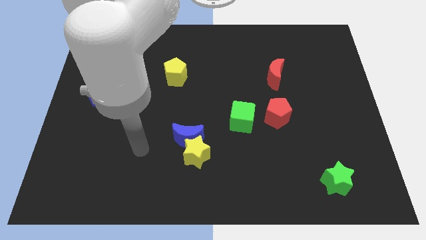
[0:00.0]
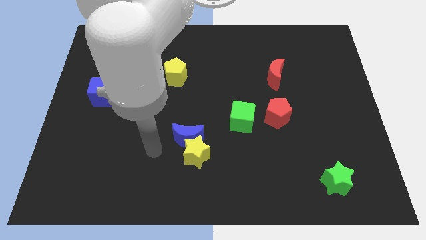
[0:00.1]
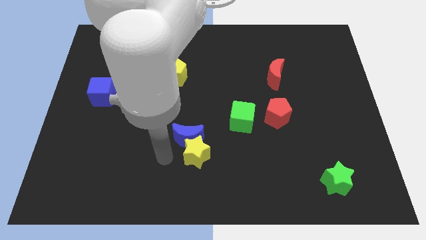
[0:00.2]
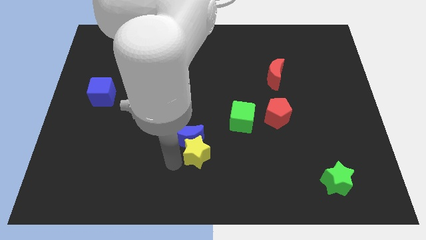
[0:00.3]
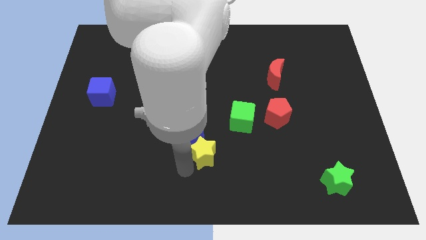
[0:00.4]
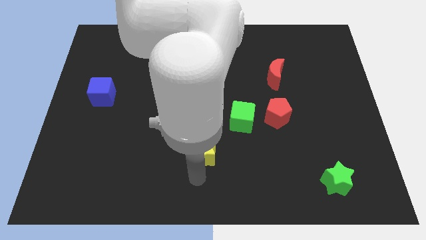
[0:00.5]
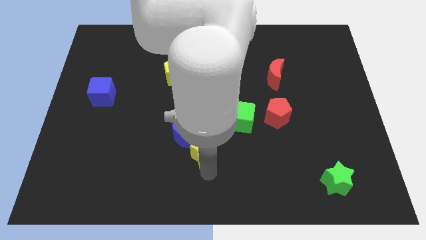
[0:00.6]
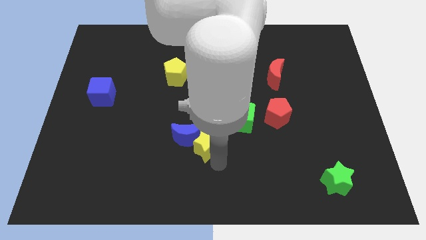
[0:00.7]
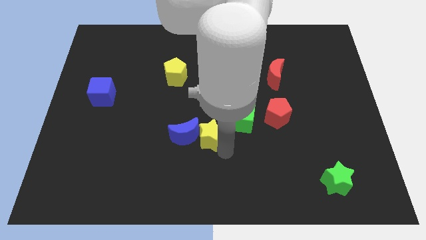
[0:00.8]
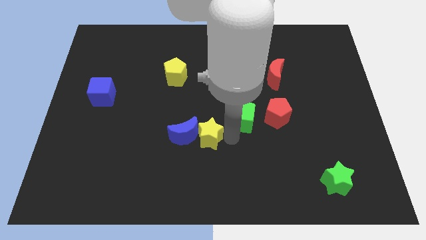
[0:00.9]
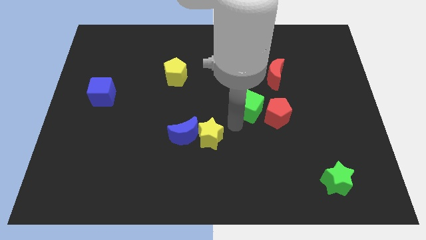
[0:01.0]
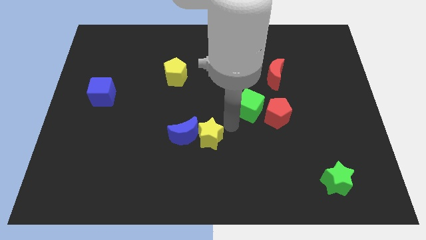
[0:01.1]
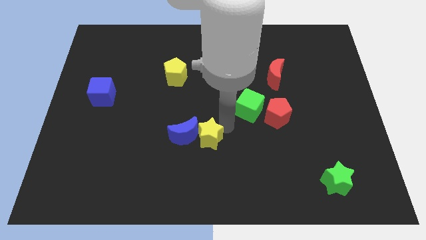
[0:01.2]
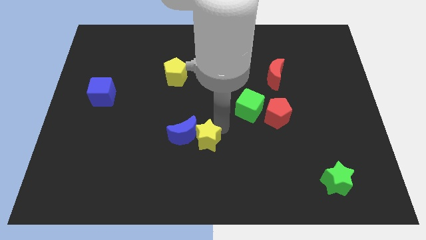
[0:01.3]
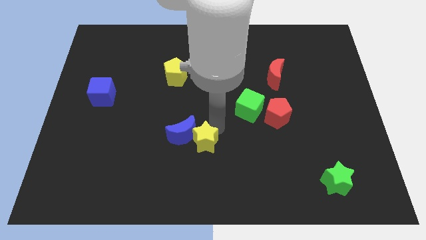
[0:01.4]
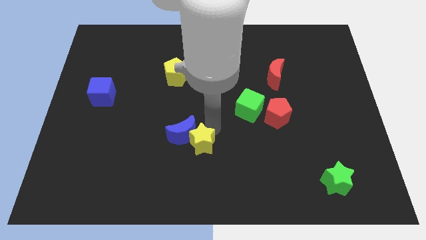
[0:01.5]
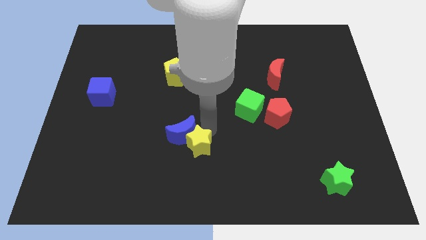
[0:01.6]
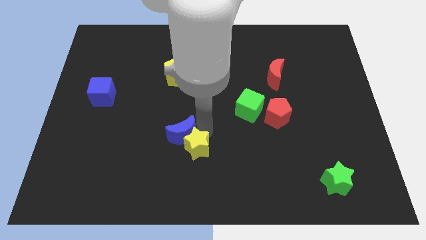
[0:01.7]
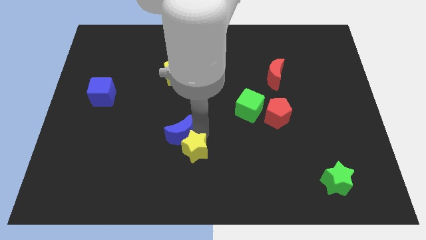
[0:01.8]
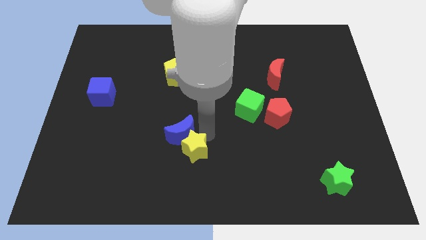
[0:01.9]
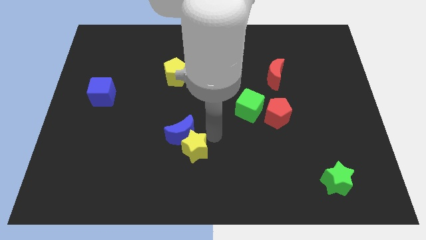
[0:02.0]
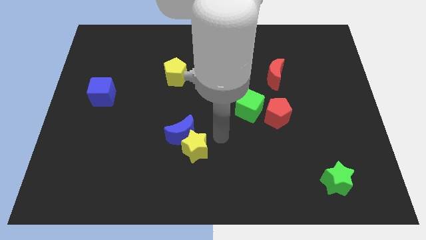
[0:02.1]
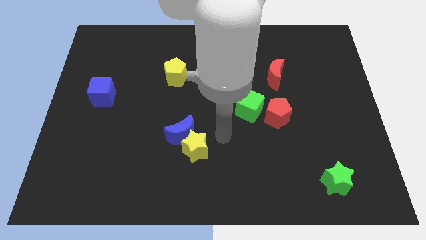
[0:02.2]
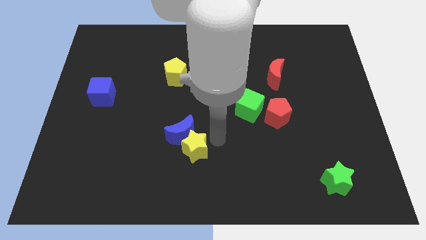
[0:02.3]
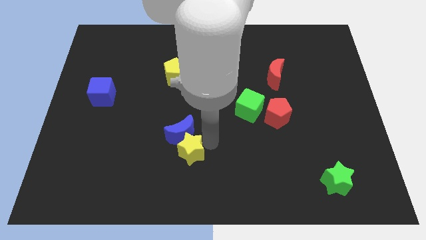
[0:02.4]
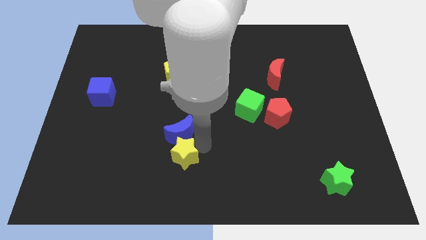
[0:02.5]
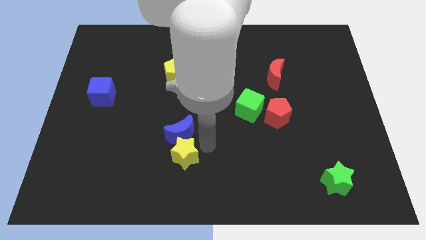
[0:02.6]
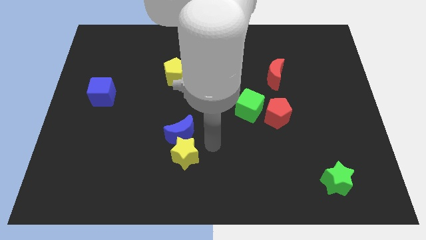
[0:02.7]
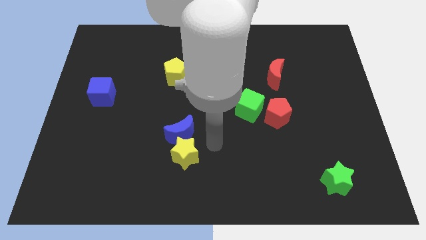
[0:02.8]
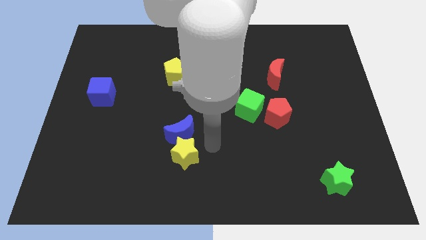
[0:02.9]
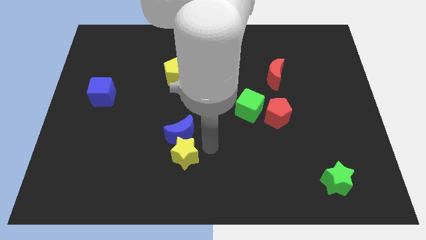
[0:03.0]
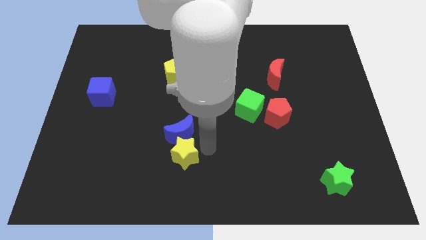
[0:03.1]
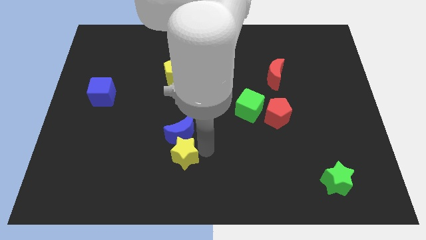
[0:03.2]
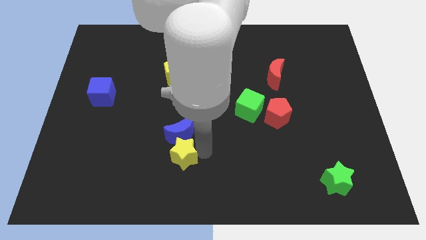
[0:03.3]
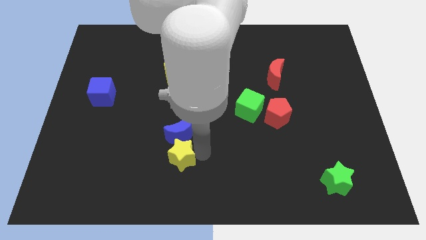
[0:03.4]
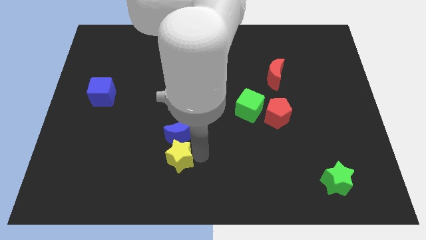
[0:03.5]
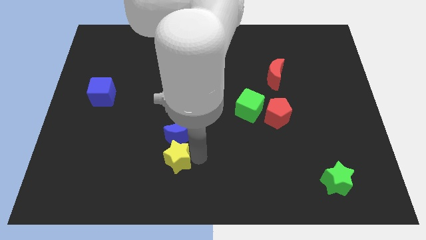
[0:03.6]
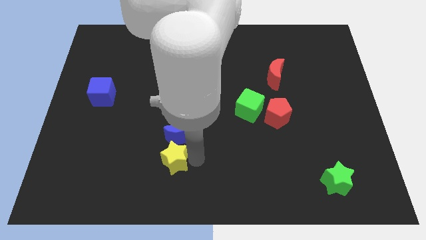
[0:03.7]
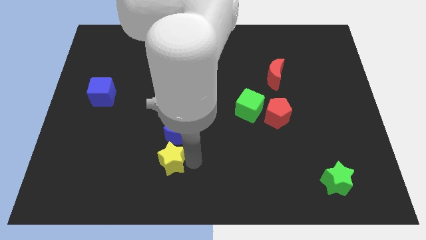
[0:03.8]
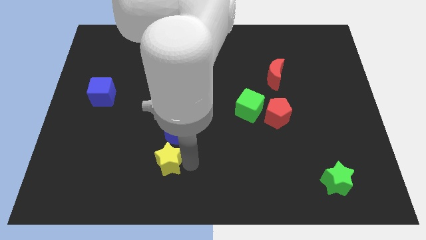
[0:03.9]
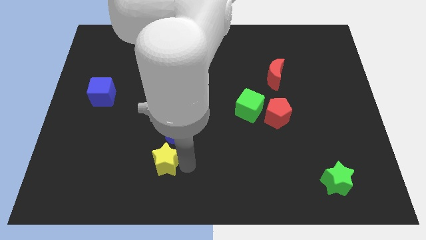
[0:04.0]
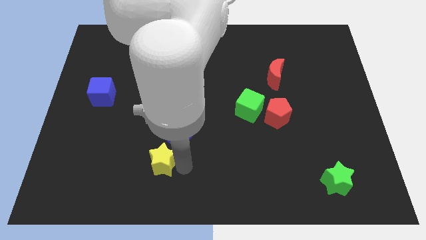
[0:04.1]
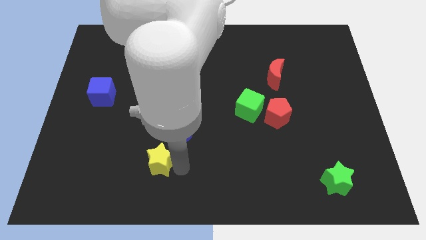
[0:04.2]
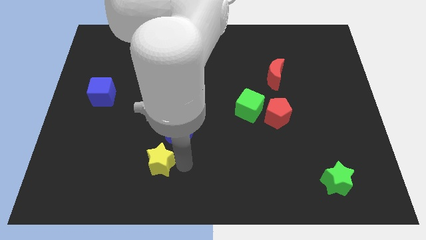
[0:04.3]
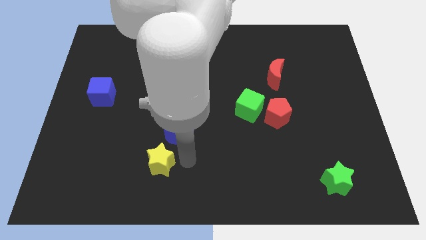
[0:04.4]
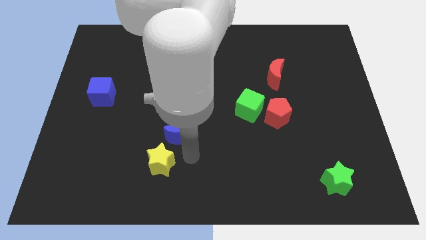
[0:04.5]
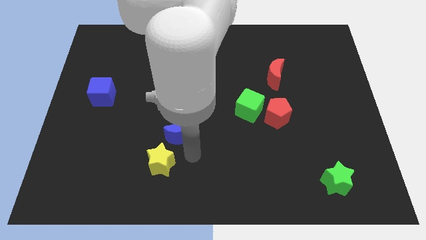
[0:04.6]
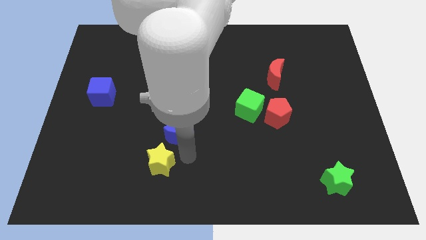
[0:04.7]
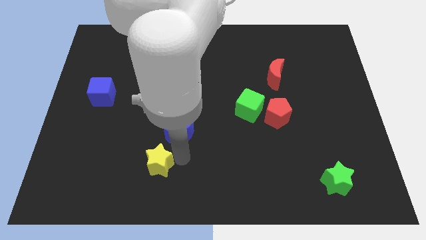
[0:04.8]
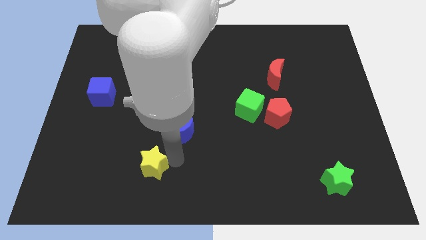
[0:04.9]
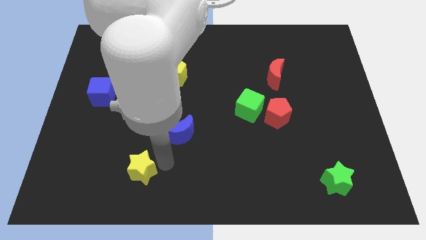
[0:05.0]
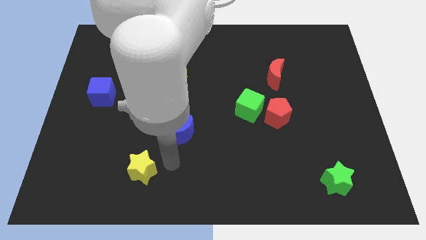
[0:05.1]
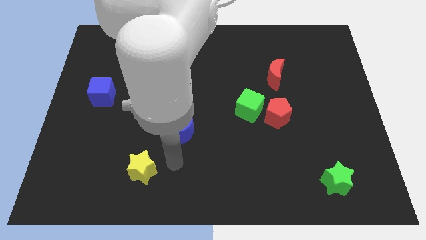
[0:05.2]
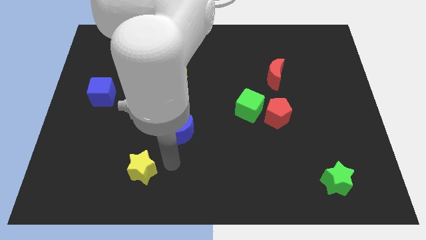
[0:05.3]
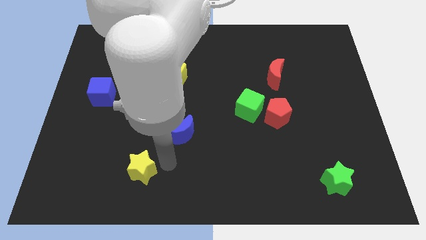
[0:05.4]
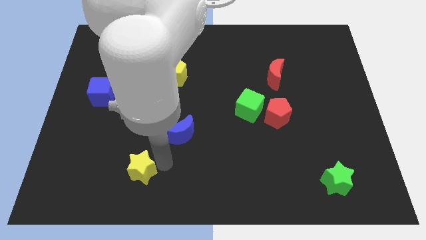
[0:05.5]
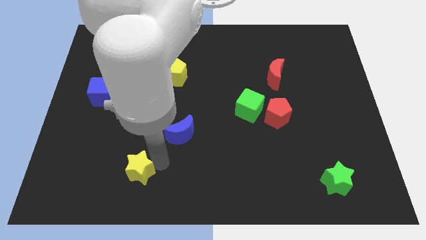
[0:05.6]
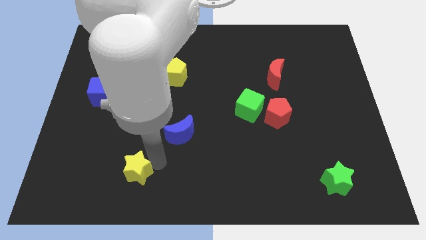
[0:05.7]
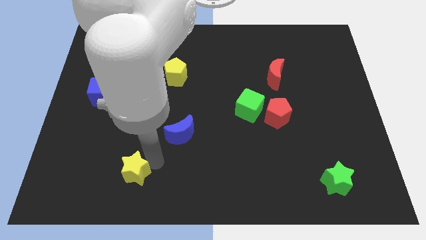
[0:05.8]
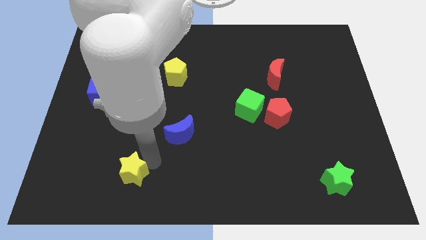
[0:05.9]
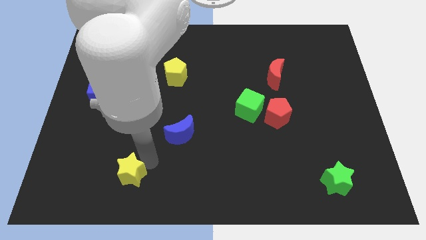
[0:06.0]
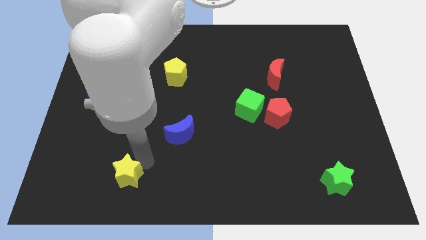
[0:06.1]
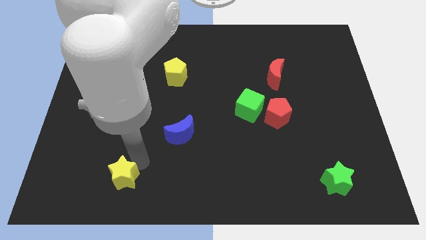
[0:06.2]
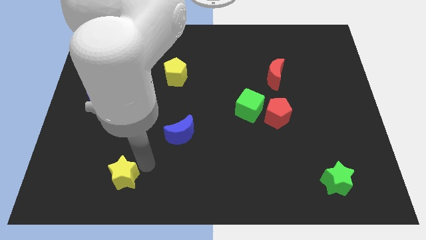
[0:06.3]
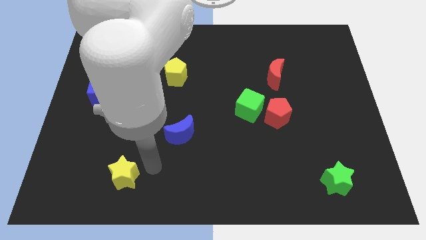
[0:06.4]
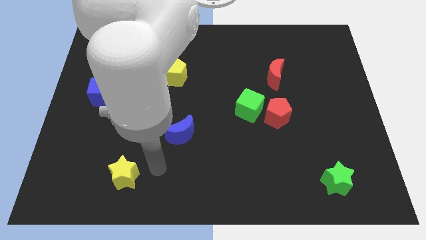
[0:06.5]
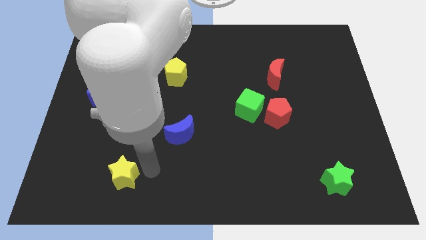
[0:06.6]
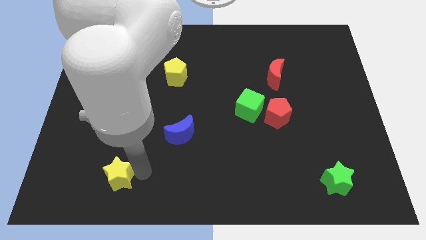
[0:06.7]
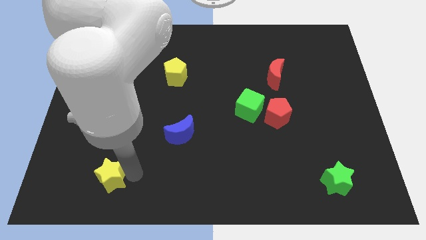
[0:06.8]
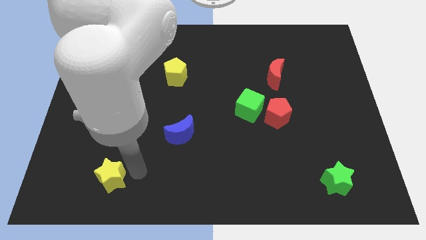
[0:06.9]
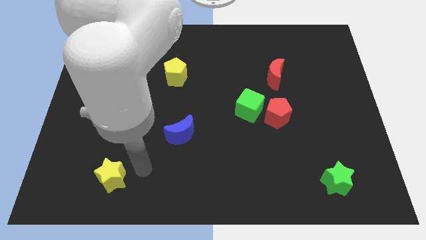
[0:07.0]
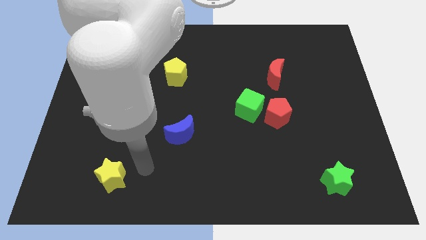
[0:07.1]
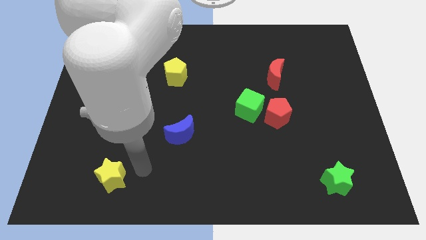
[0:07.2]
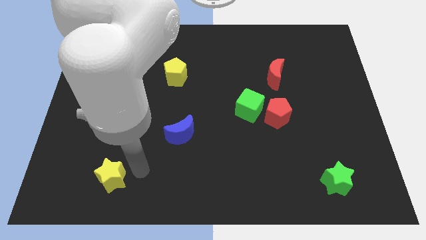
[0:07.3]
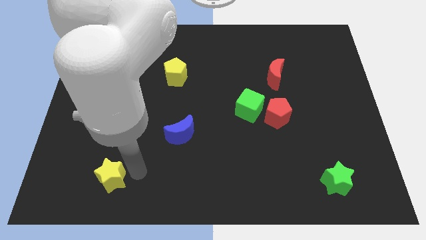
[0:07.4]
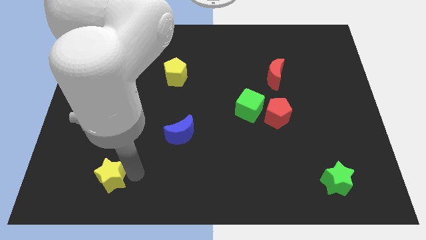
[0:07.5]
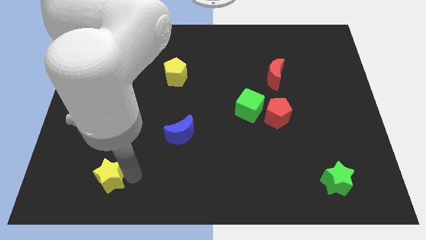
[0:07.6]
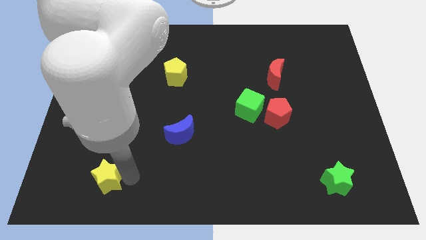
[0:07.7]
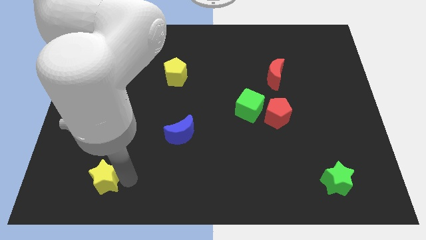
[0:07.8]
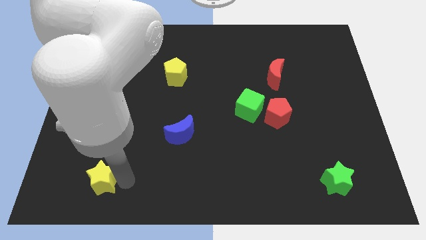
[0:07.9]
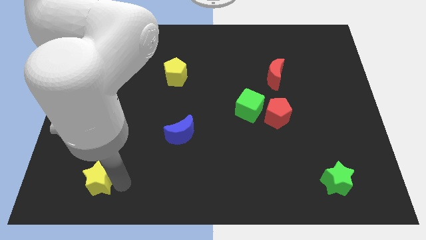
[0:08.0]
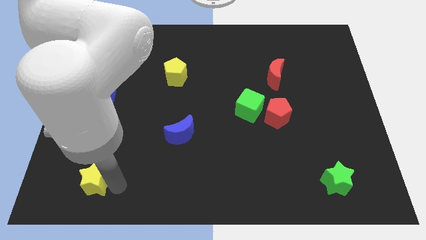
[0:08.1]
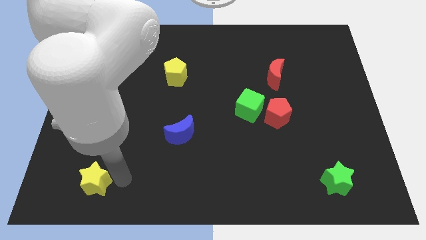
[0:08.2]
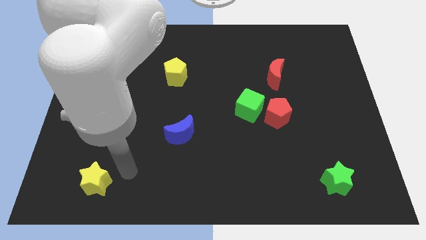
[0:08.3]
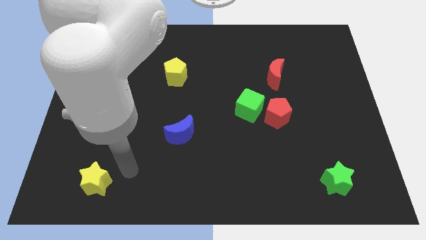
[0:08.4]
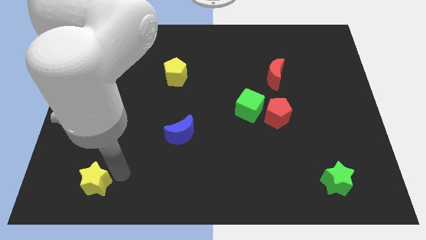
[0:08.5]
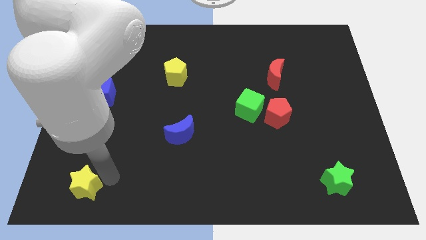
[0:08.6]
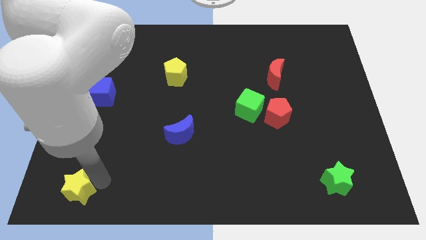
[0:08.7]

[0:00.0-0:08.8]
push the yellow star to the bottom left
